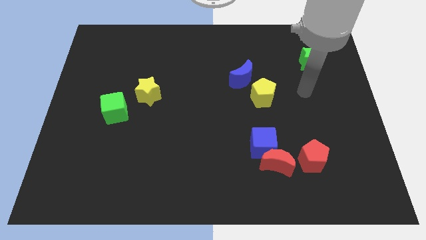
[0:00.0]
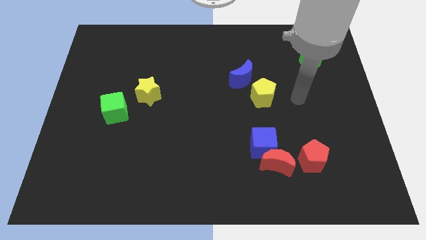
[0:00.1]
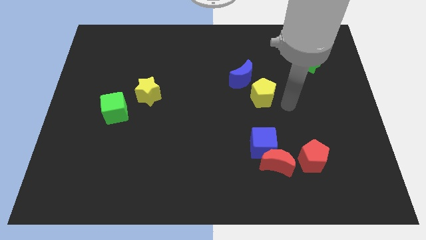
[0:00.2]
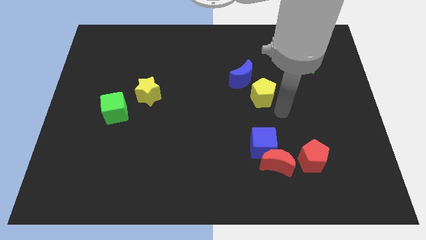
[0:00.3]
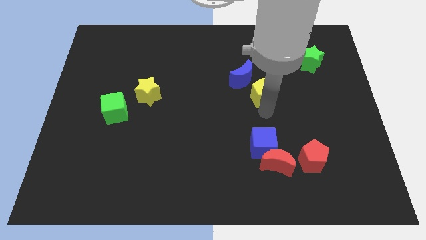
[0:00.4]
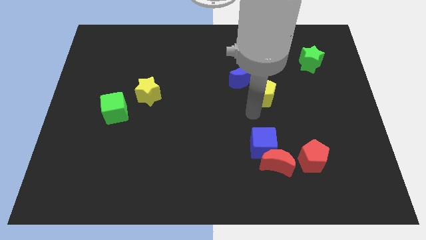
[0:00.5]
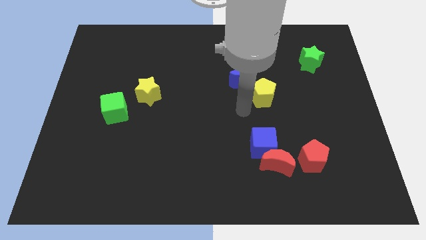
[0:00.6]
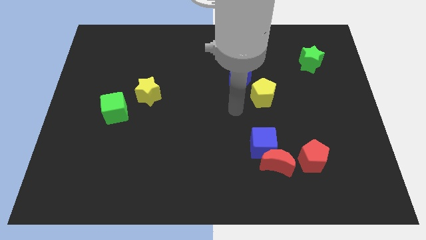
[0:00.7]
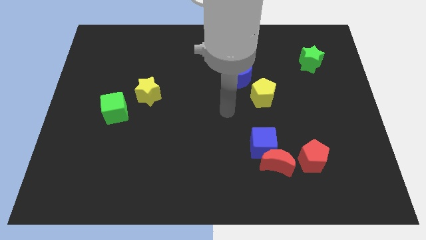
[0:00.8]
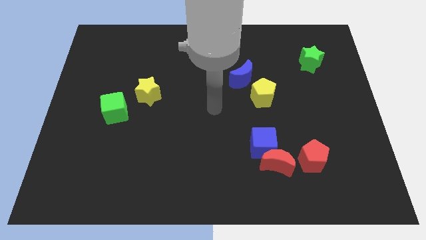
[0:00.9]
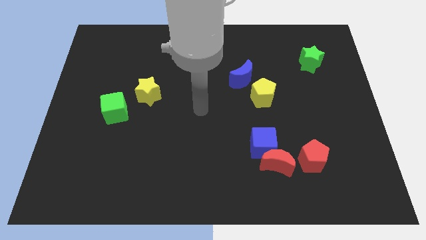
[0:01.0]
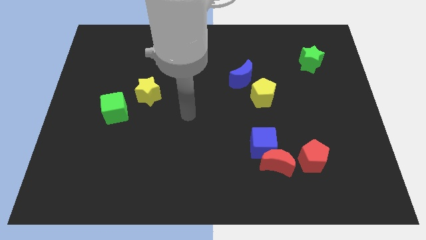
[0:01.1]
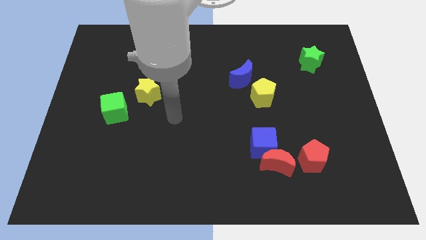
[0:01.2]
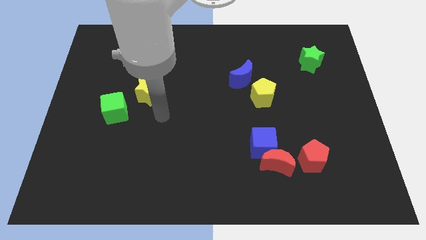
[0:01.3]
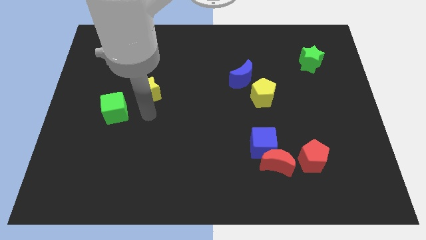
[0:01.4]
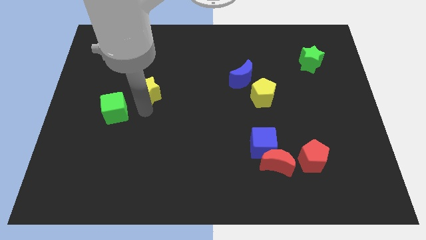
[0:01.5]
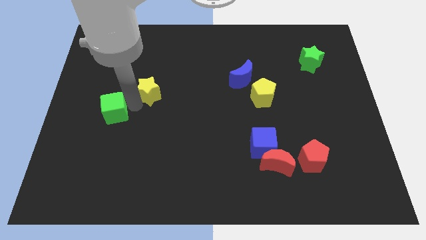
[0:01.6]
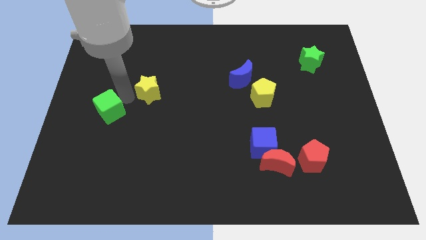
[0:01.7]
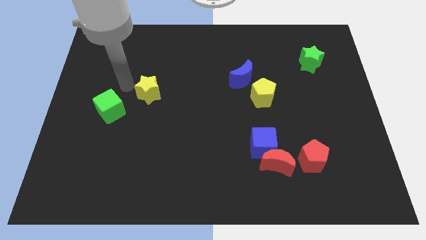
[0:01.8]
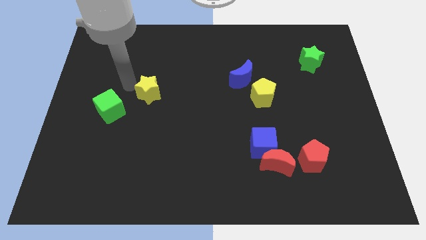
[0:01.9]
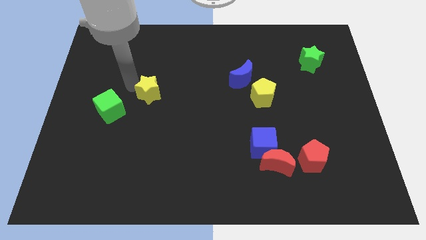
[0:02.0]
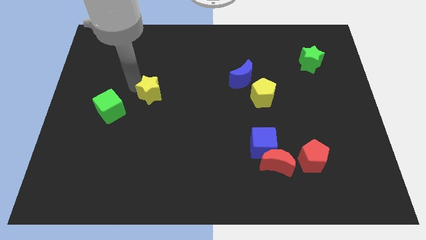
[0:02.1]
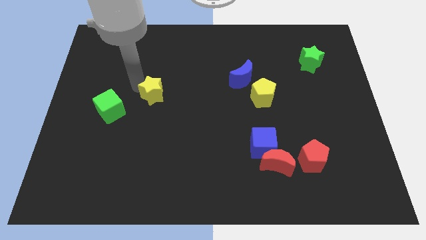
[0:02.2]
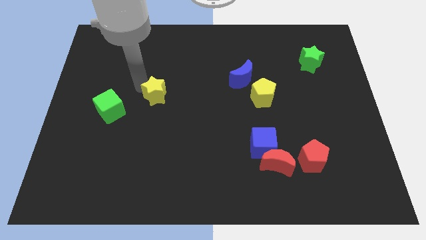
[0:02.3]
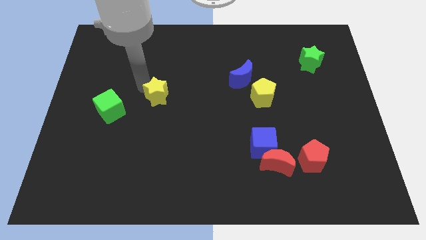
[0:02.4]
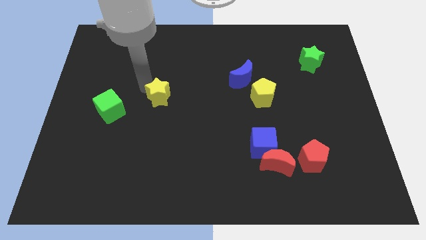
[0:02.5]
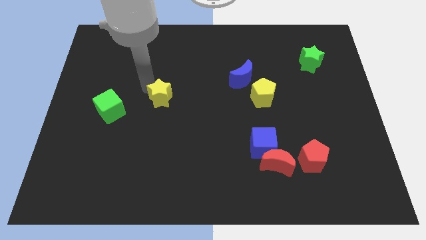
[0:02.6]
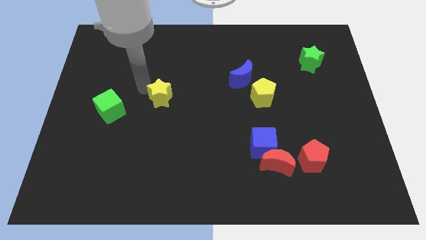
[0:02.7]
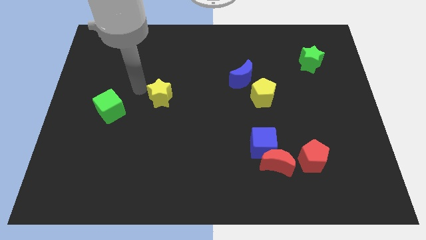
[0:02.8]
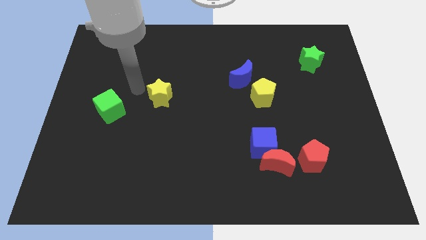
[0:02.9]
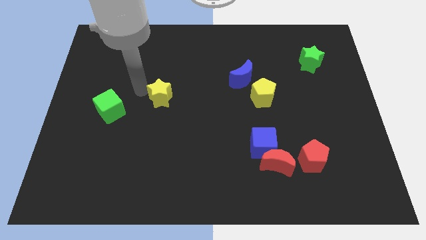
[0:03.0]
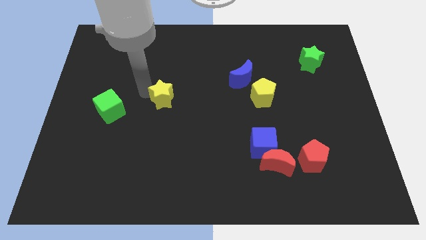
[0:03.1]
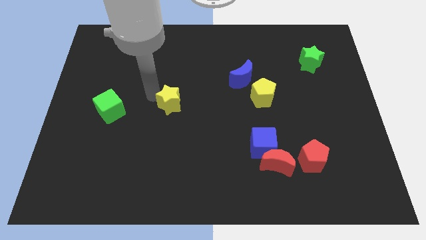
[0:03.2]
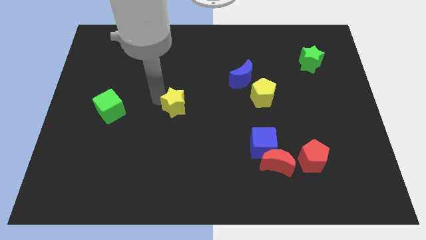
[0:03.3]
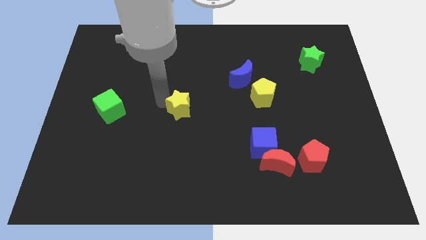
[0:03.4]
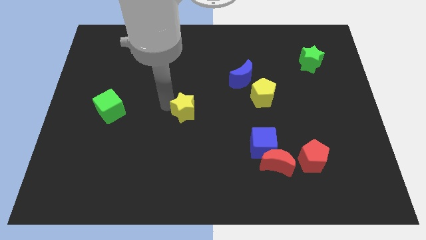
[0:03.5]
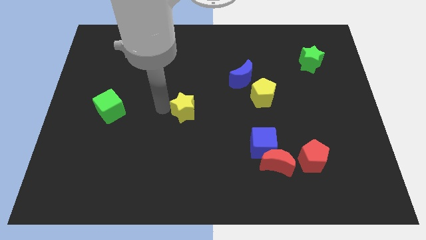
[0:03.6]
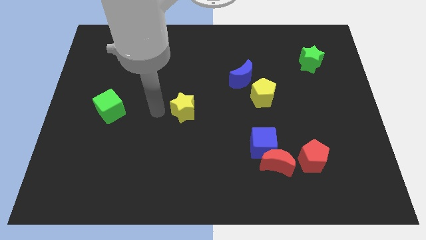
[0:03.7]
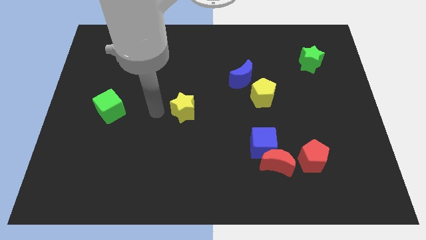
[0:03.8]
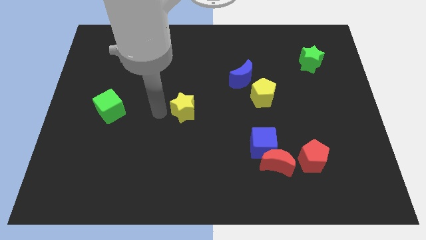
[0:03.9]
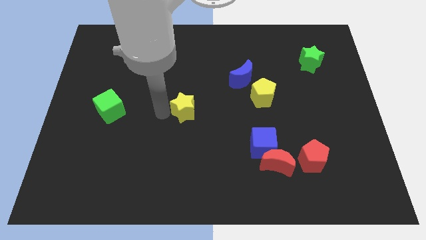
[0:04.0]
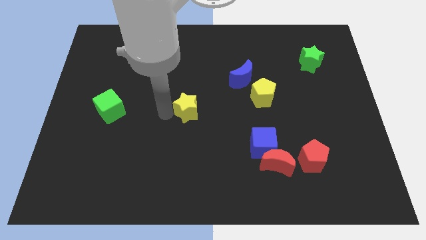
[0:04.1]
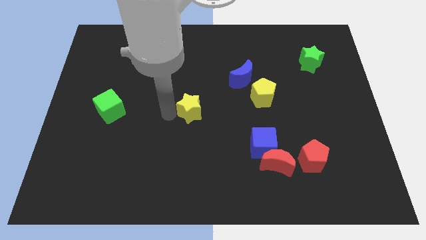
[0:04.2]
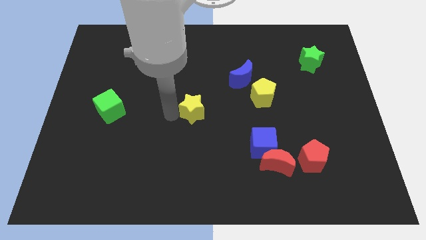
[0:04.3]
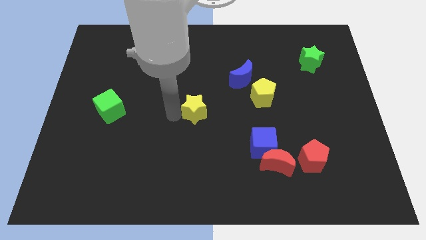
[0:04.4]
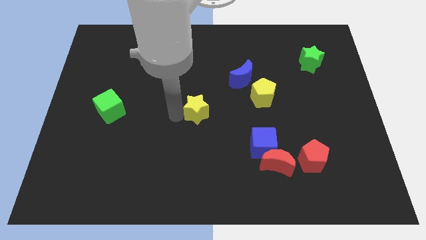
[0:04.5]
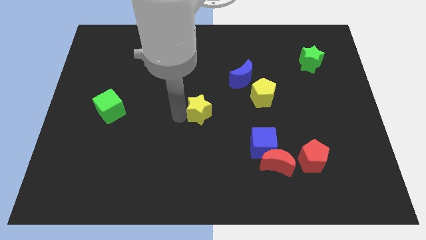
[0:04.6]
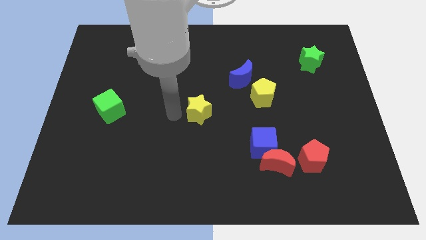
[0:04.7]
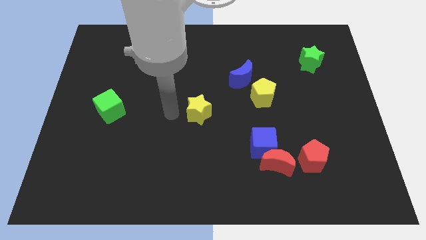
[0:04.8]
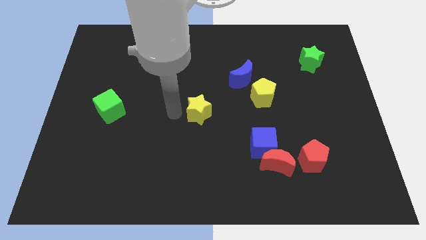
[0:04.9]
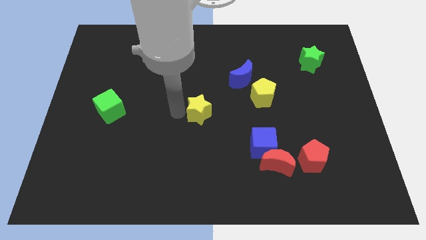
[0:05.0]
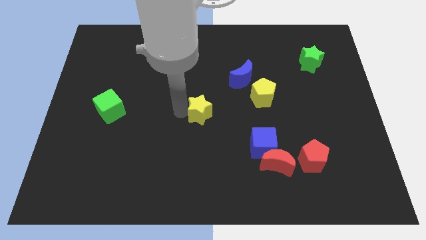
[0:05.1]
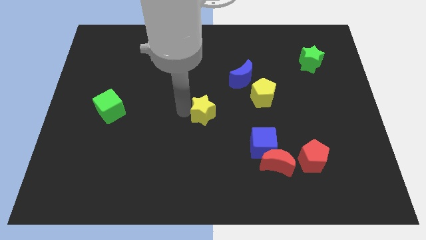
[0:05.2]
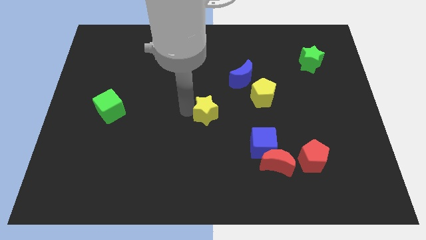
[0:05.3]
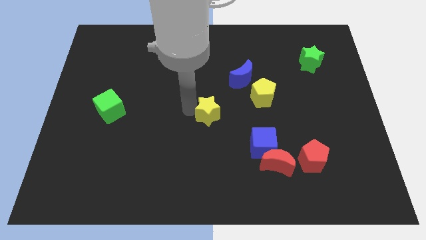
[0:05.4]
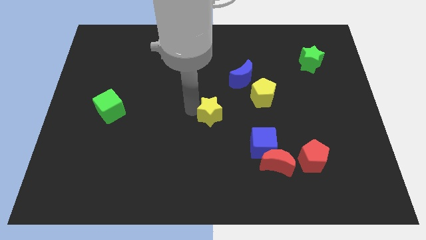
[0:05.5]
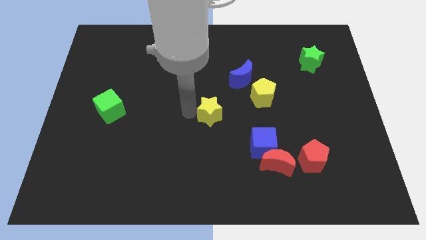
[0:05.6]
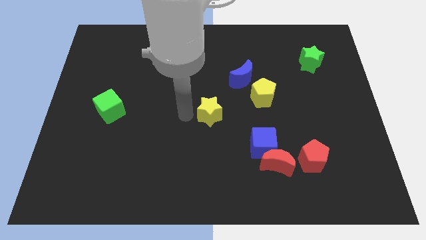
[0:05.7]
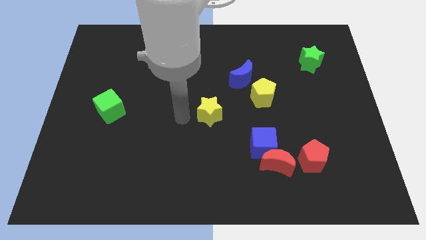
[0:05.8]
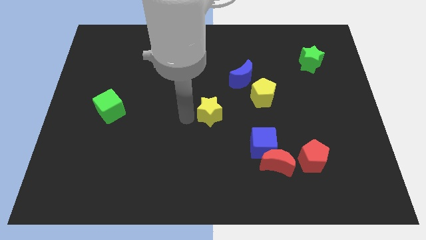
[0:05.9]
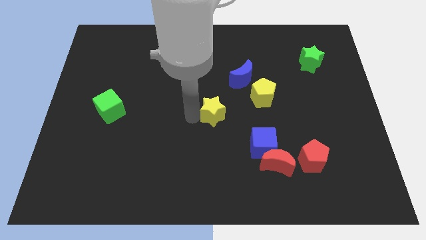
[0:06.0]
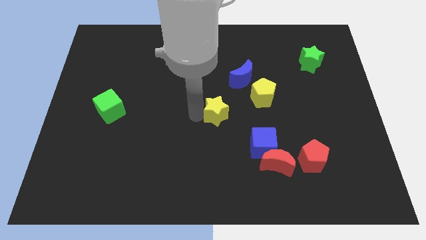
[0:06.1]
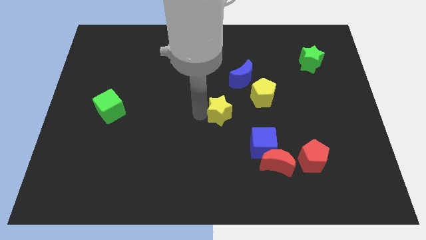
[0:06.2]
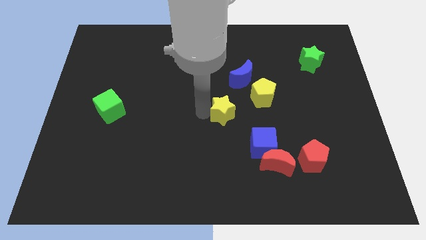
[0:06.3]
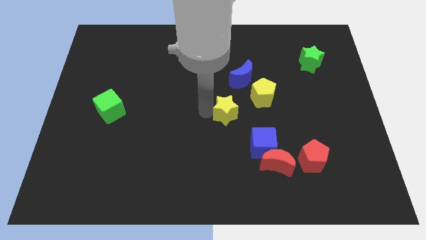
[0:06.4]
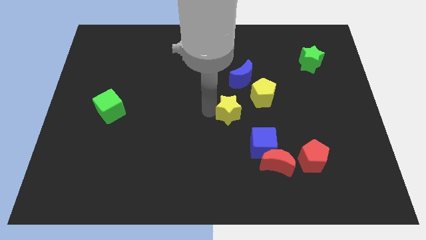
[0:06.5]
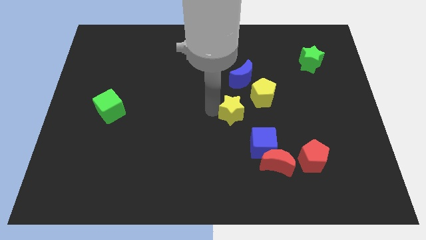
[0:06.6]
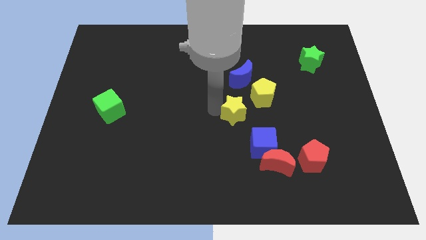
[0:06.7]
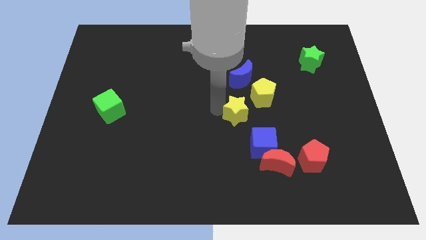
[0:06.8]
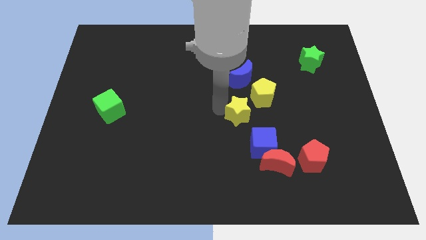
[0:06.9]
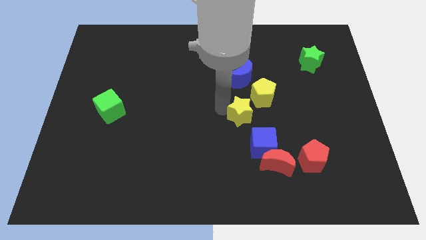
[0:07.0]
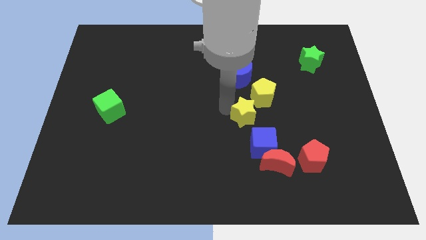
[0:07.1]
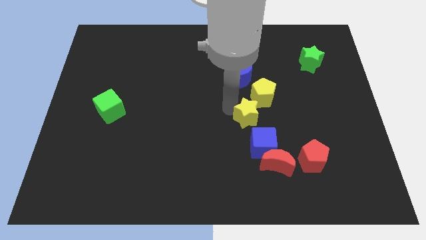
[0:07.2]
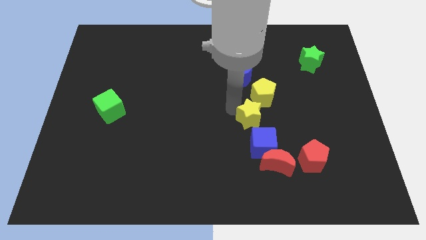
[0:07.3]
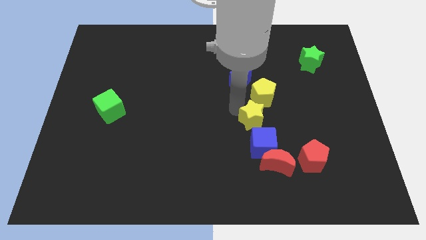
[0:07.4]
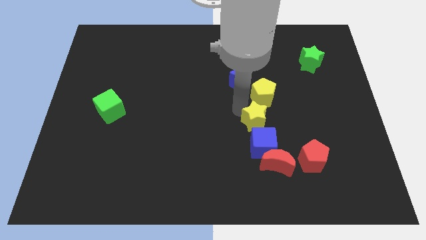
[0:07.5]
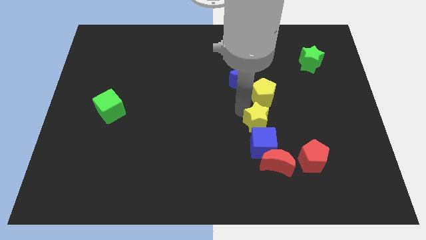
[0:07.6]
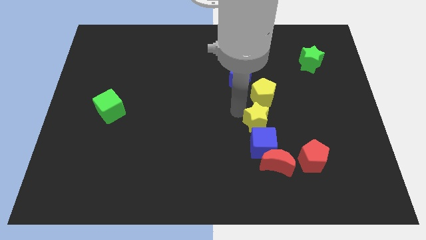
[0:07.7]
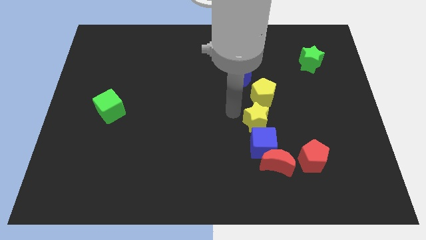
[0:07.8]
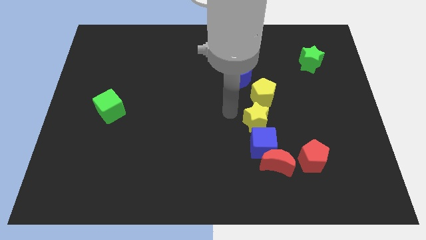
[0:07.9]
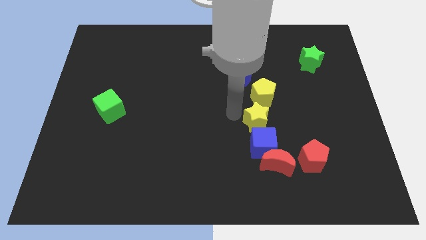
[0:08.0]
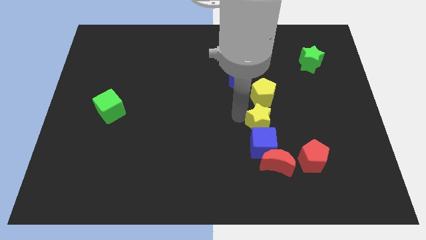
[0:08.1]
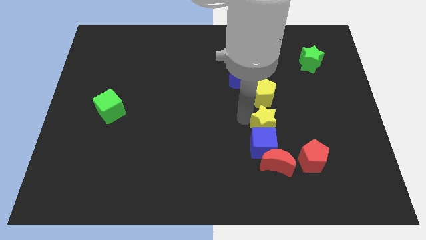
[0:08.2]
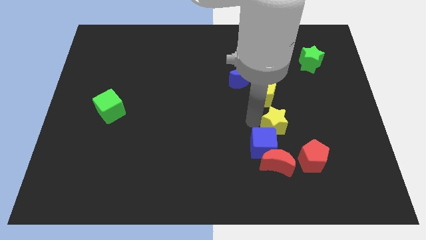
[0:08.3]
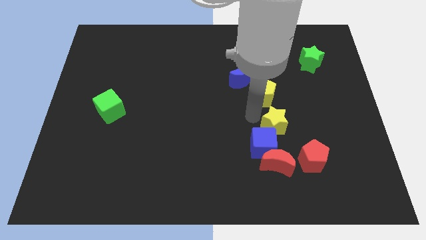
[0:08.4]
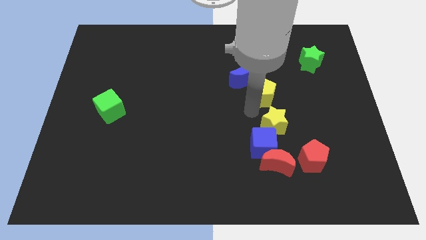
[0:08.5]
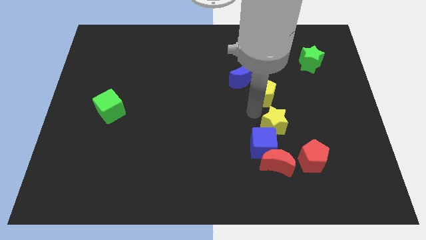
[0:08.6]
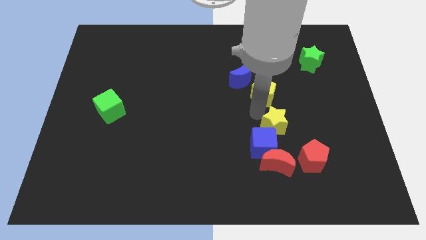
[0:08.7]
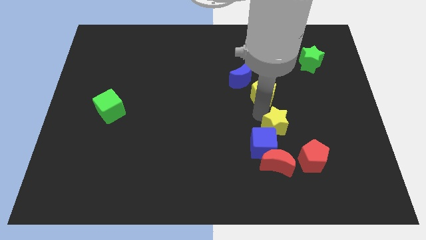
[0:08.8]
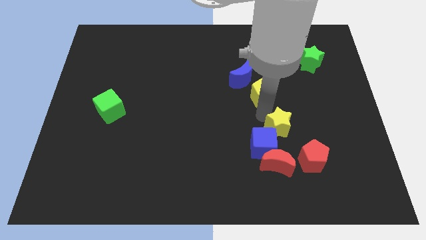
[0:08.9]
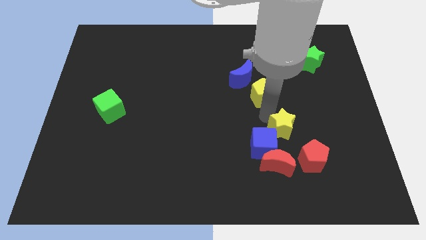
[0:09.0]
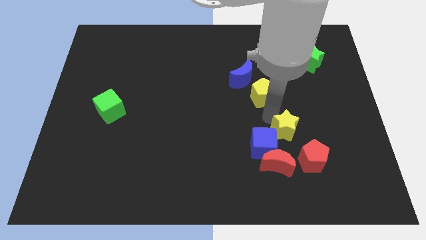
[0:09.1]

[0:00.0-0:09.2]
put the yellow star to the top right side of the red moon
